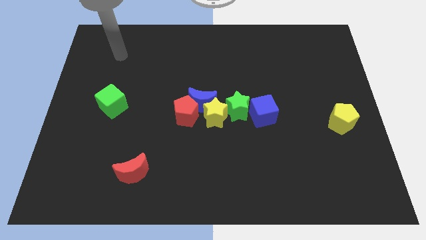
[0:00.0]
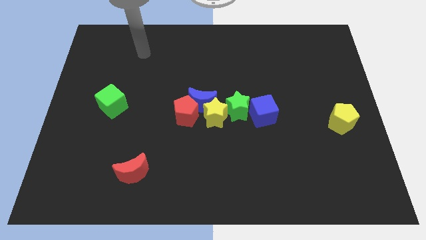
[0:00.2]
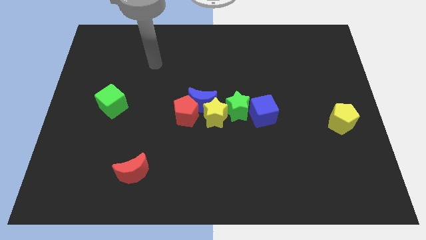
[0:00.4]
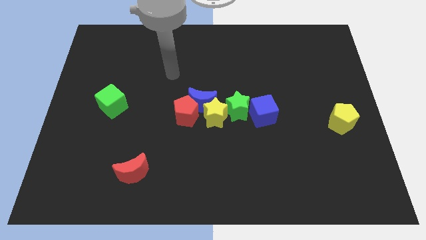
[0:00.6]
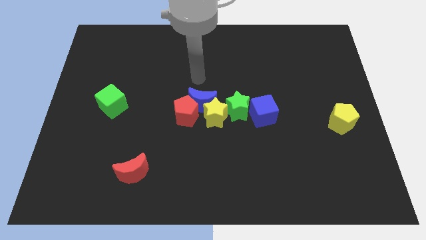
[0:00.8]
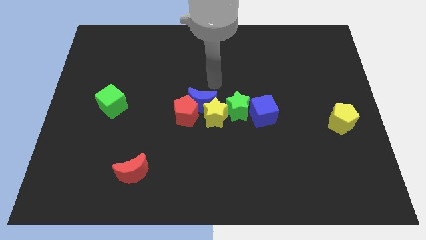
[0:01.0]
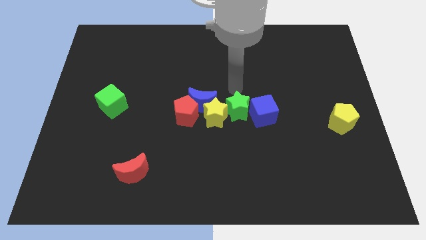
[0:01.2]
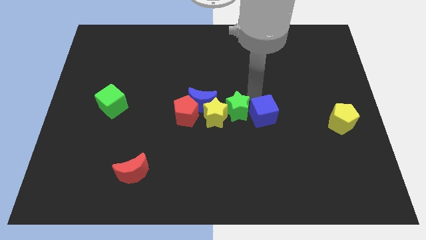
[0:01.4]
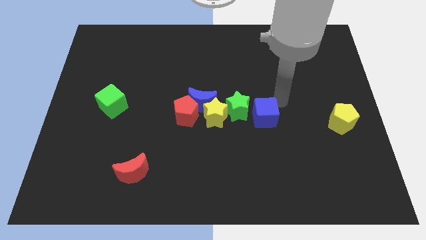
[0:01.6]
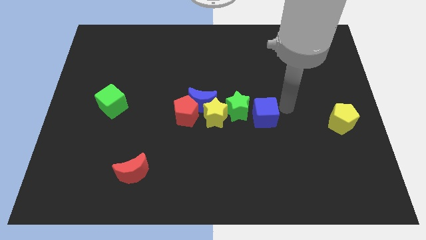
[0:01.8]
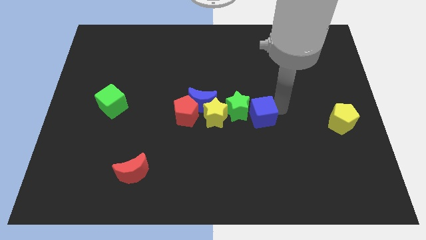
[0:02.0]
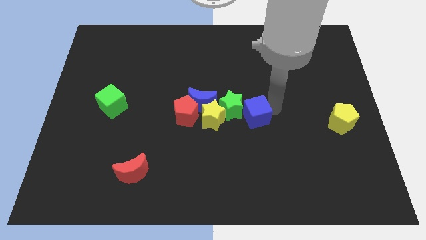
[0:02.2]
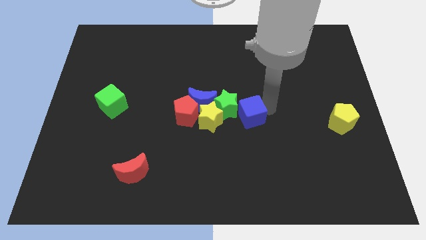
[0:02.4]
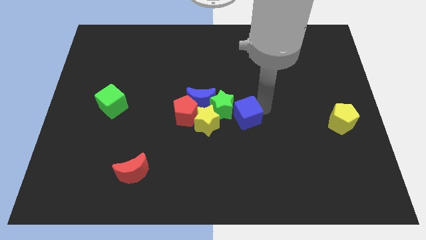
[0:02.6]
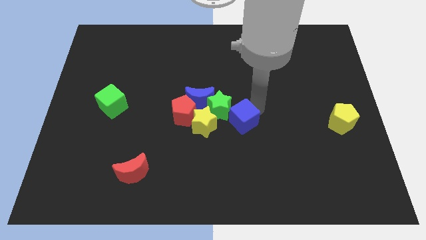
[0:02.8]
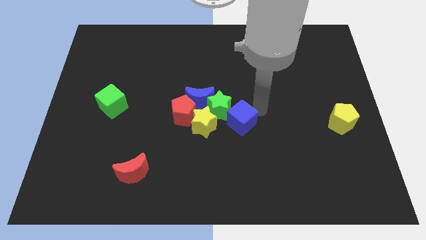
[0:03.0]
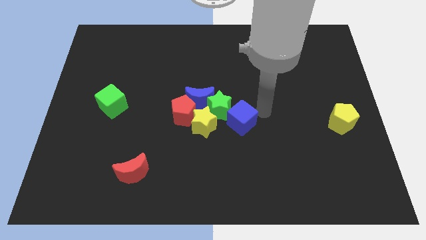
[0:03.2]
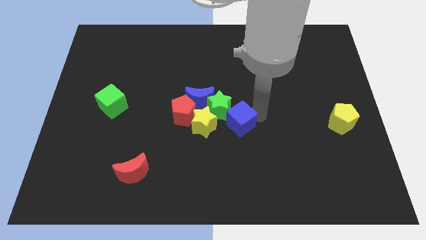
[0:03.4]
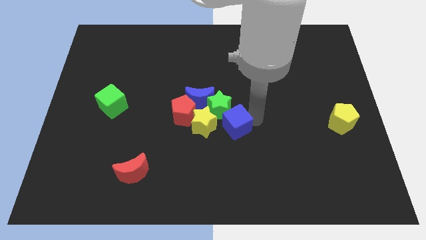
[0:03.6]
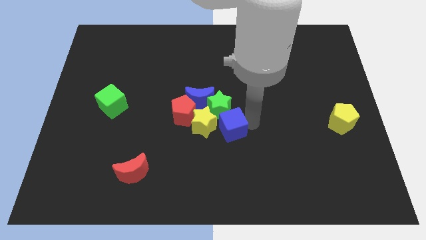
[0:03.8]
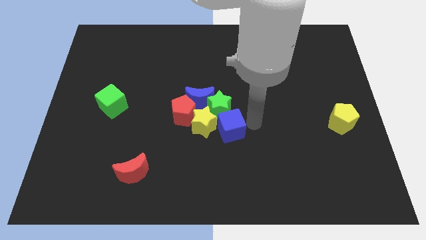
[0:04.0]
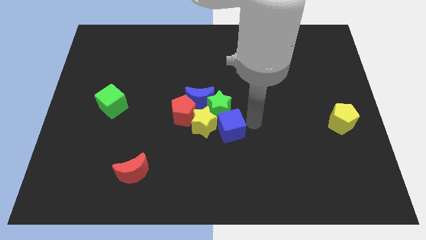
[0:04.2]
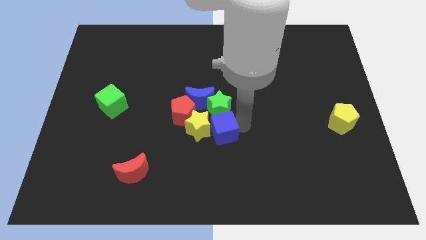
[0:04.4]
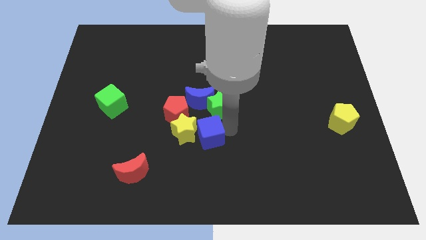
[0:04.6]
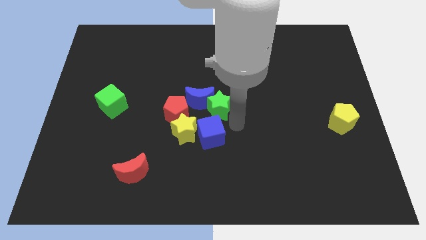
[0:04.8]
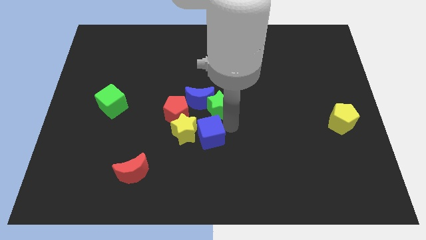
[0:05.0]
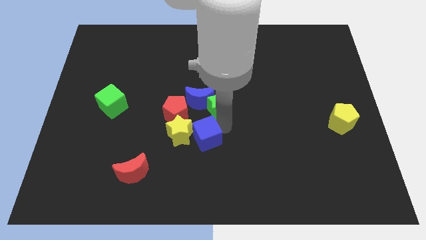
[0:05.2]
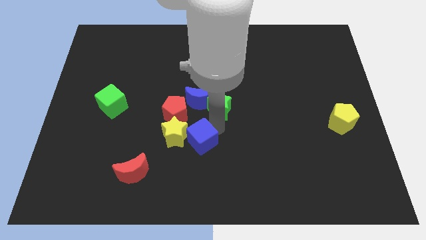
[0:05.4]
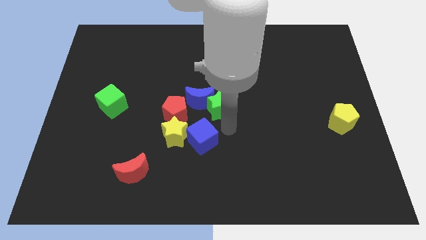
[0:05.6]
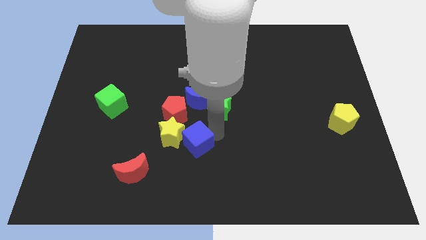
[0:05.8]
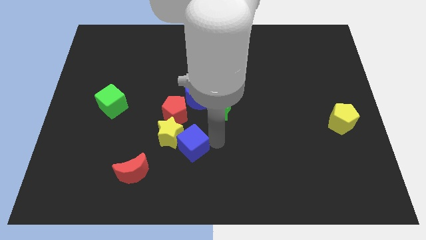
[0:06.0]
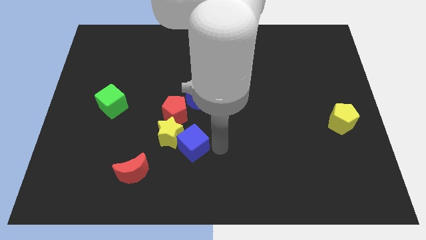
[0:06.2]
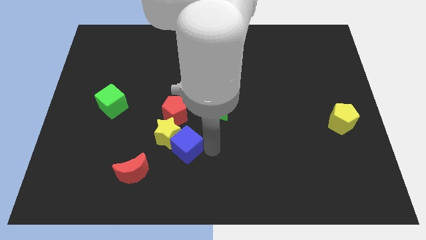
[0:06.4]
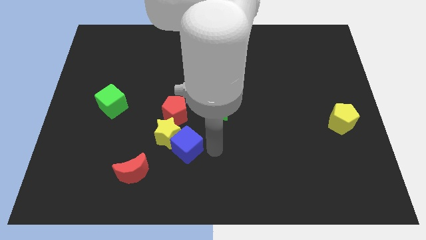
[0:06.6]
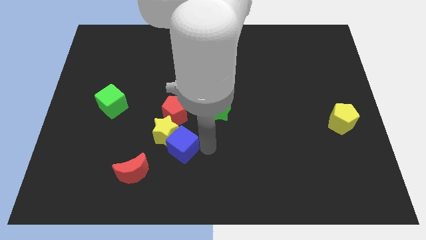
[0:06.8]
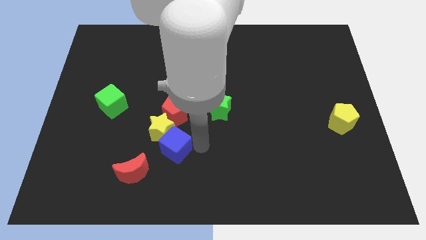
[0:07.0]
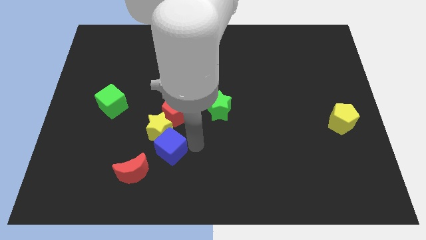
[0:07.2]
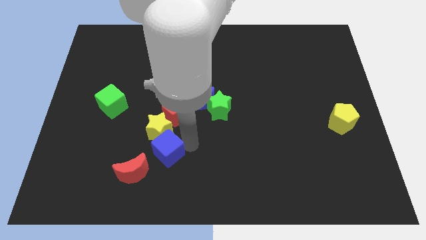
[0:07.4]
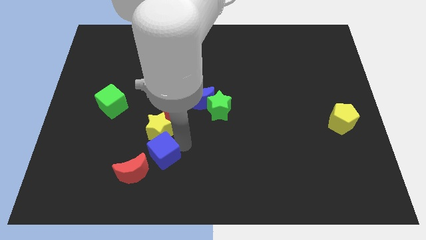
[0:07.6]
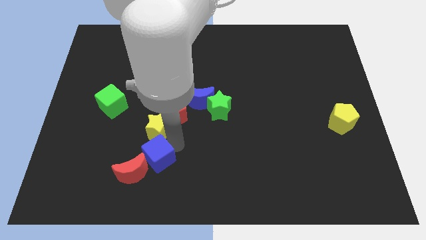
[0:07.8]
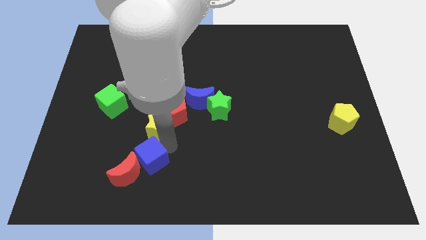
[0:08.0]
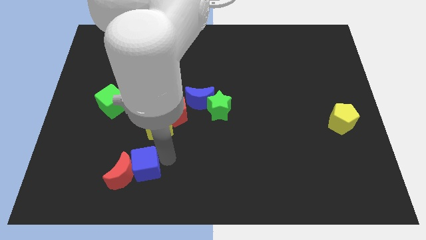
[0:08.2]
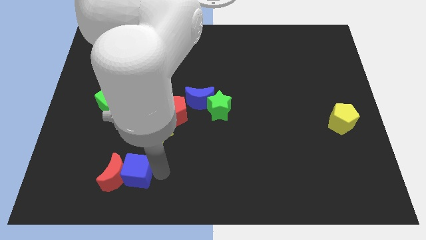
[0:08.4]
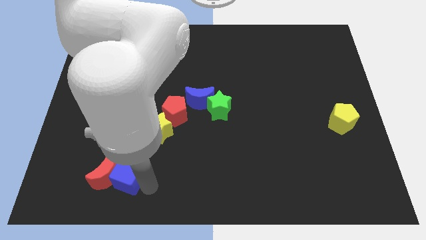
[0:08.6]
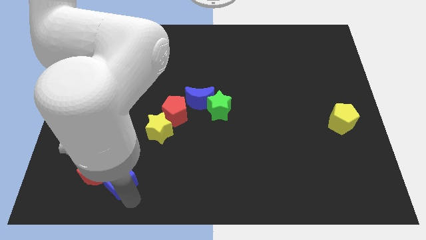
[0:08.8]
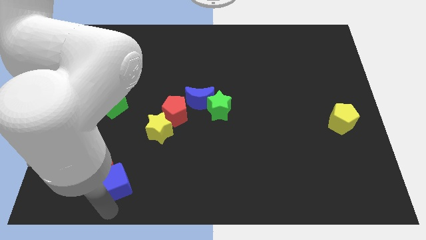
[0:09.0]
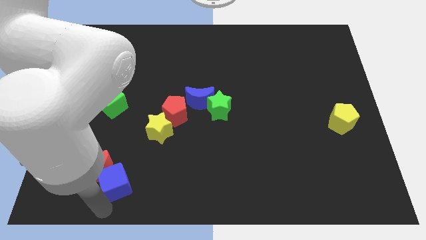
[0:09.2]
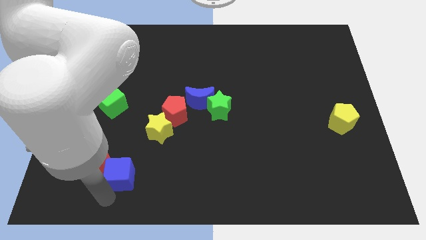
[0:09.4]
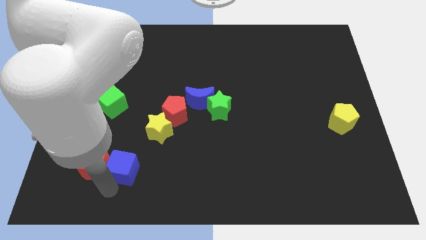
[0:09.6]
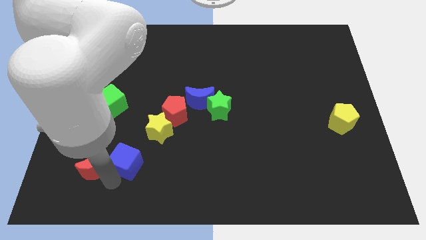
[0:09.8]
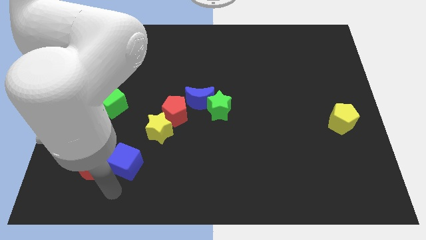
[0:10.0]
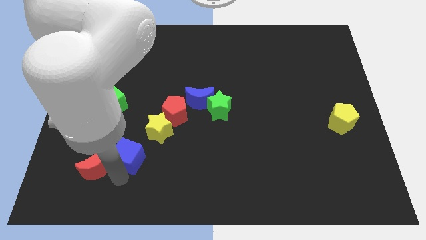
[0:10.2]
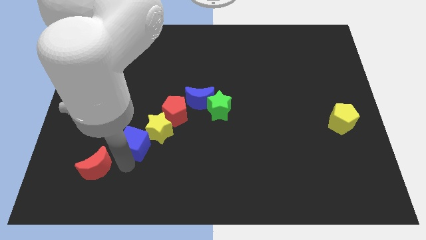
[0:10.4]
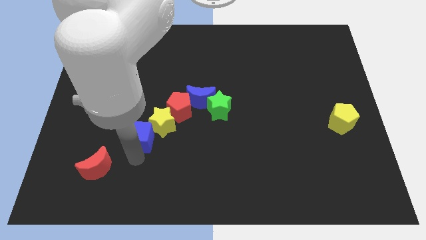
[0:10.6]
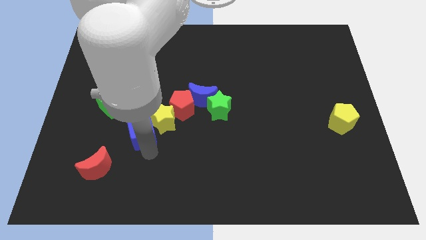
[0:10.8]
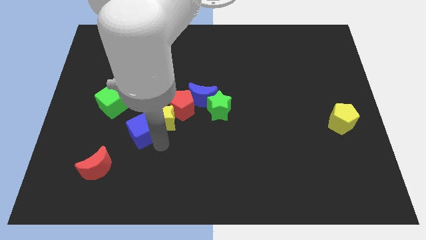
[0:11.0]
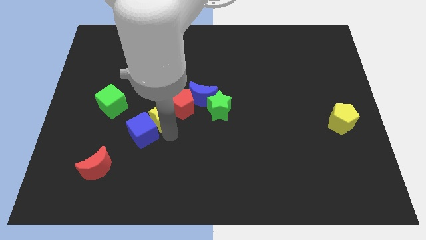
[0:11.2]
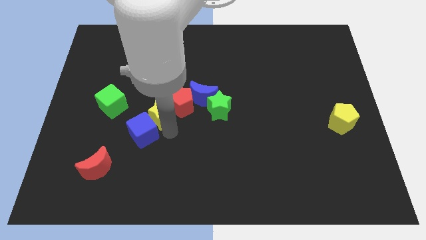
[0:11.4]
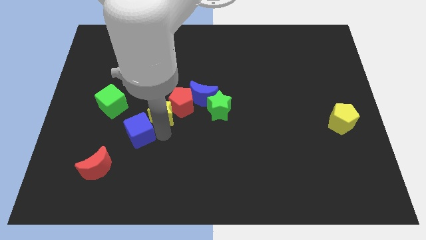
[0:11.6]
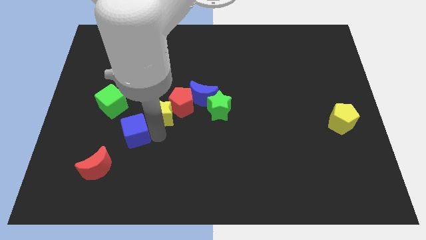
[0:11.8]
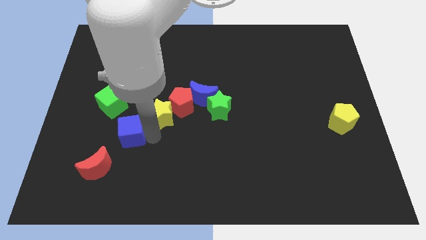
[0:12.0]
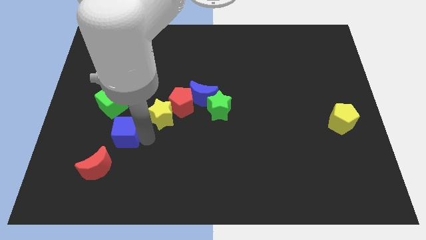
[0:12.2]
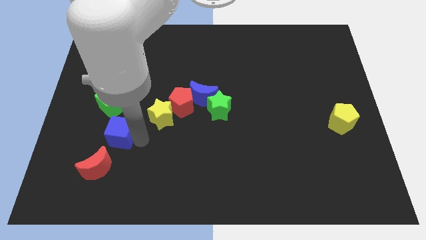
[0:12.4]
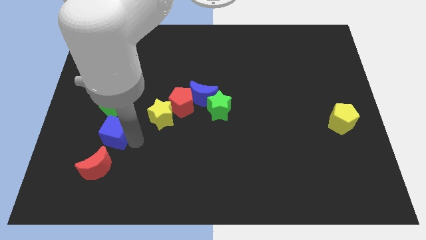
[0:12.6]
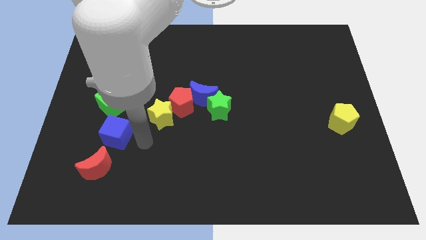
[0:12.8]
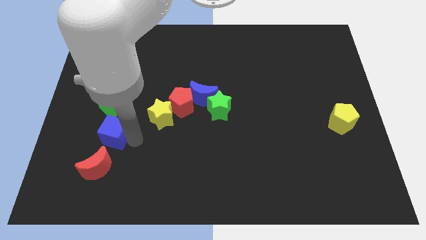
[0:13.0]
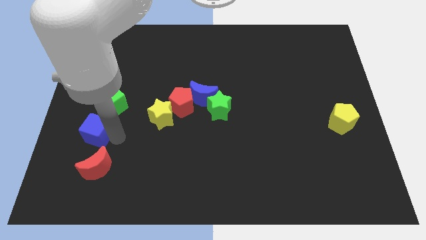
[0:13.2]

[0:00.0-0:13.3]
put the blue cube diagonally down and to the left of the green cube

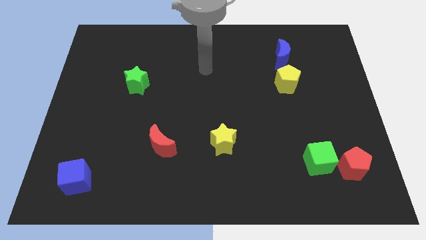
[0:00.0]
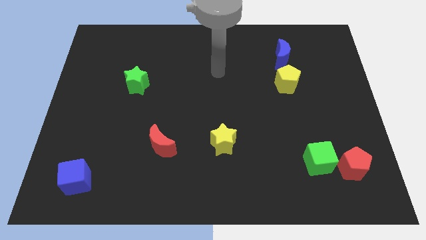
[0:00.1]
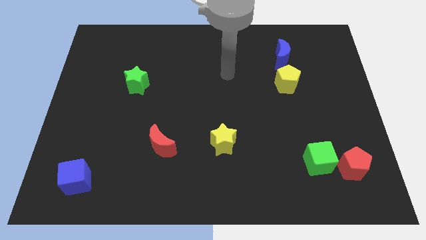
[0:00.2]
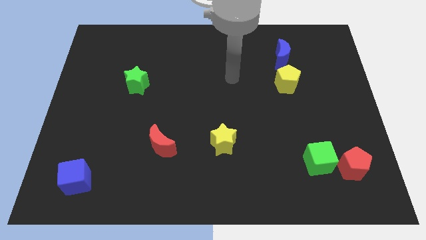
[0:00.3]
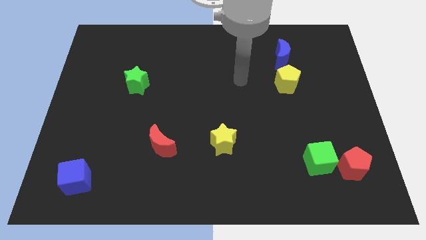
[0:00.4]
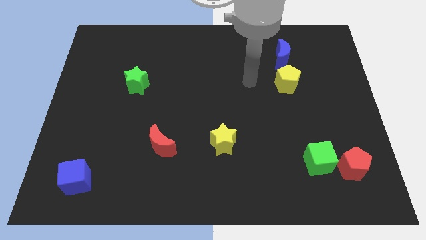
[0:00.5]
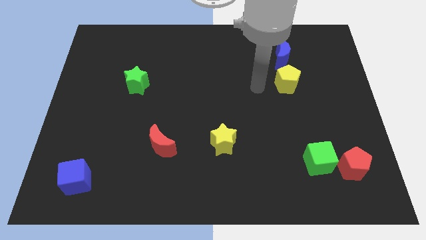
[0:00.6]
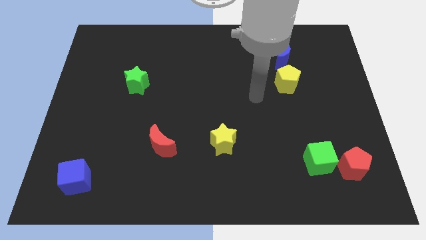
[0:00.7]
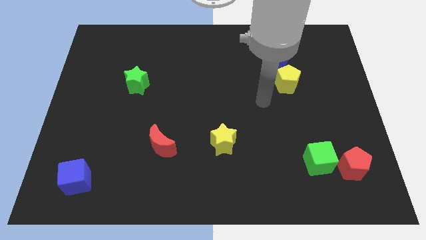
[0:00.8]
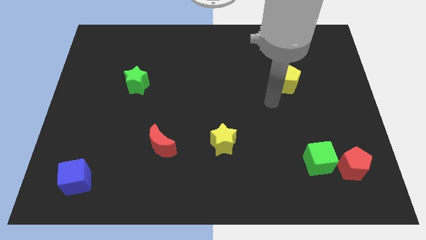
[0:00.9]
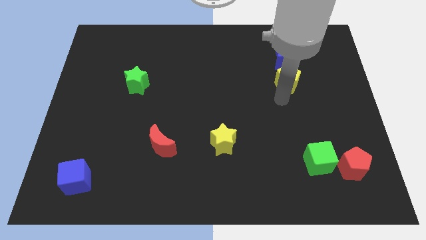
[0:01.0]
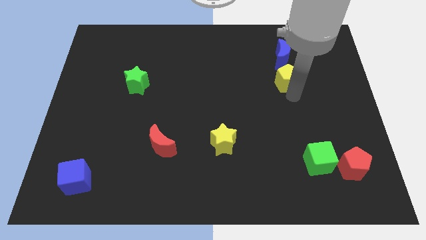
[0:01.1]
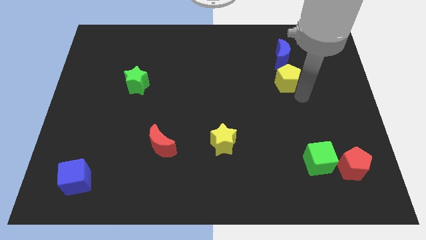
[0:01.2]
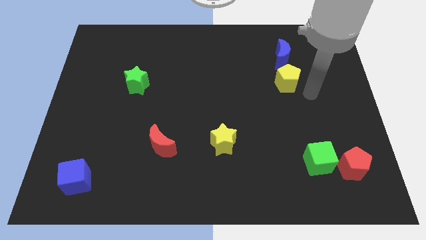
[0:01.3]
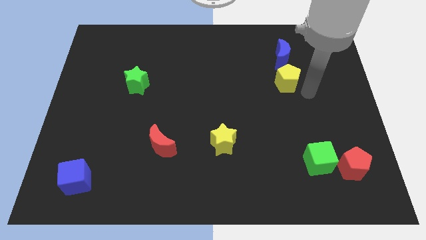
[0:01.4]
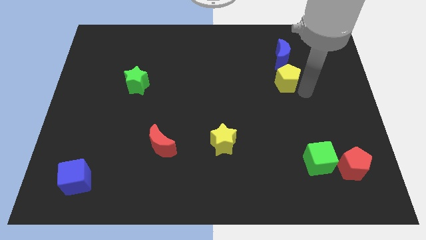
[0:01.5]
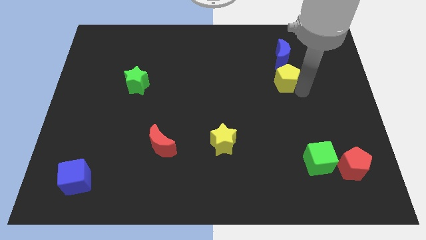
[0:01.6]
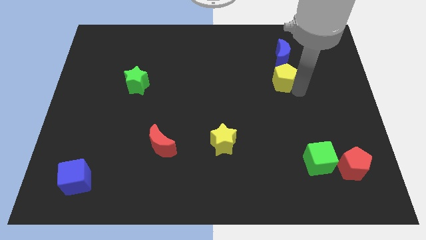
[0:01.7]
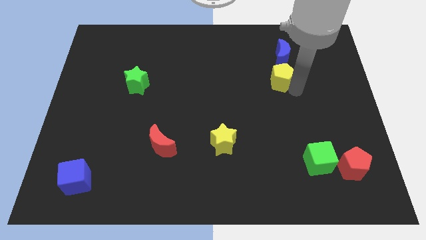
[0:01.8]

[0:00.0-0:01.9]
put the yellow pentagon to the bottom left side of the blue moon
